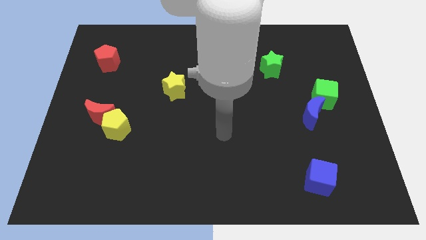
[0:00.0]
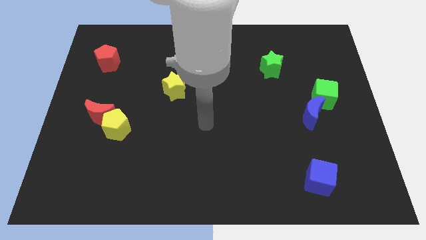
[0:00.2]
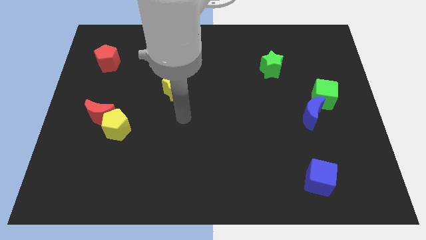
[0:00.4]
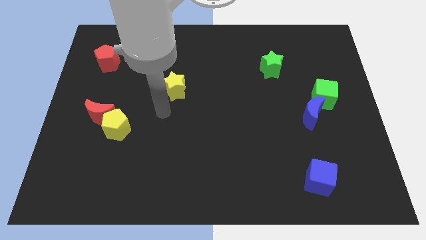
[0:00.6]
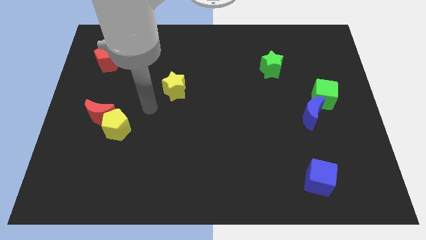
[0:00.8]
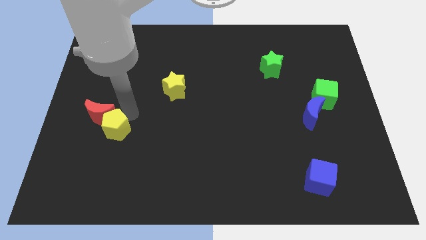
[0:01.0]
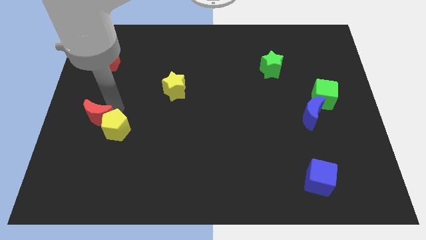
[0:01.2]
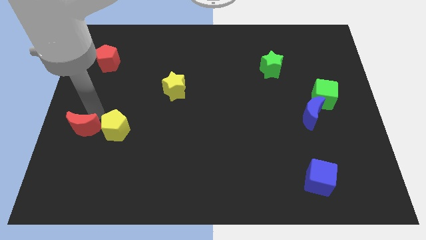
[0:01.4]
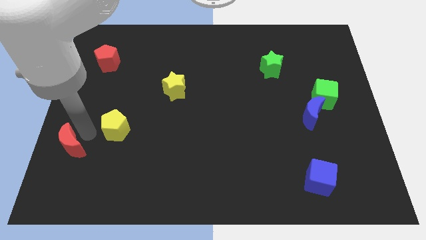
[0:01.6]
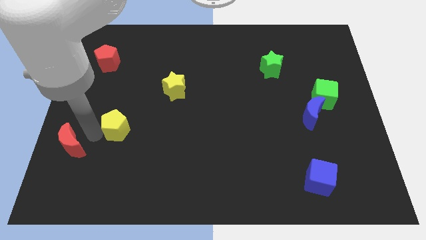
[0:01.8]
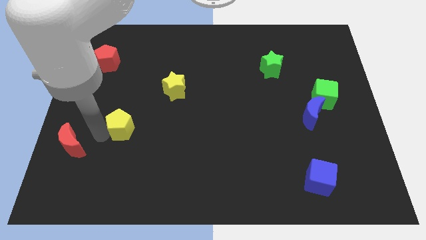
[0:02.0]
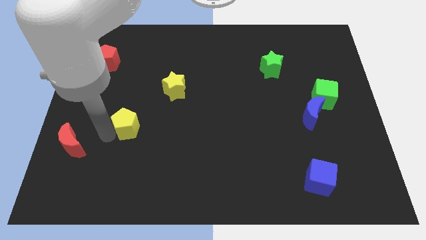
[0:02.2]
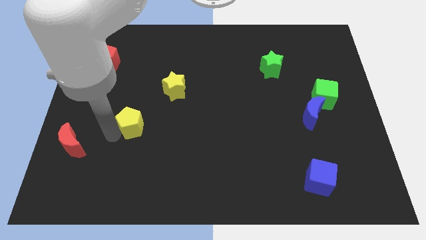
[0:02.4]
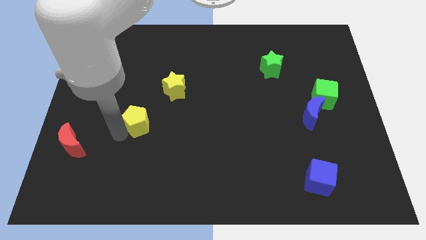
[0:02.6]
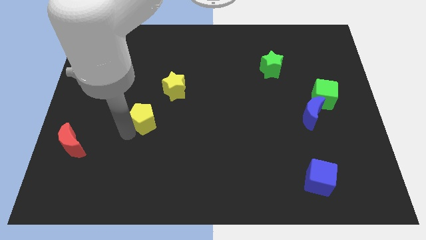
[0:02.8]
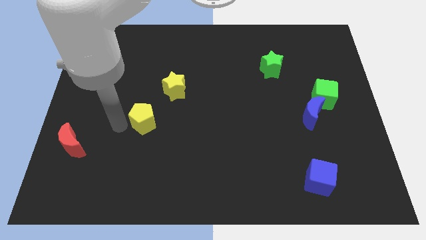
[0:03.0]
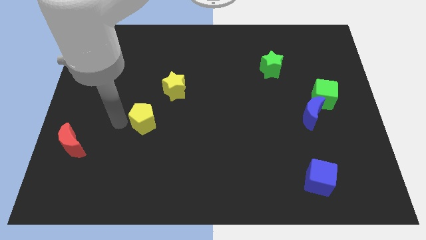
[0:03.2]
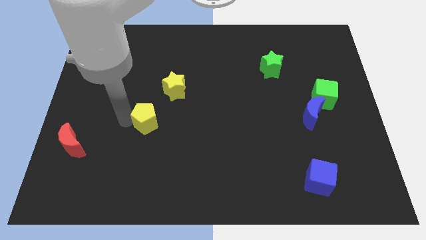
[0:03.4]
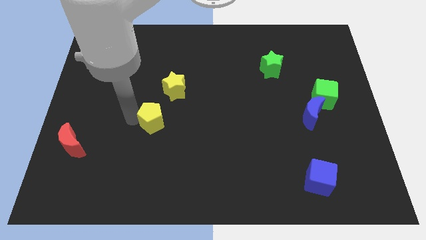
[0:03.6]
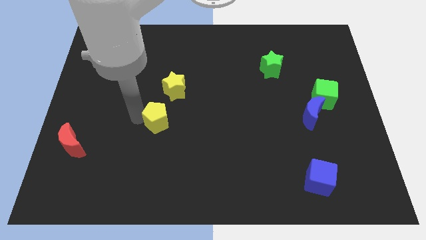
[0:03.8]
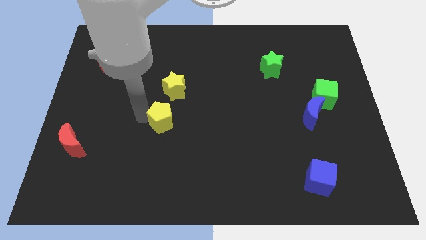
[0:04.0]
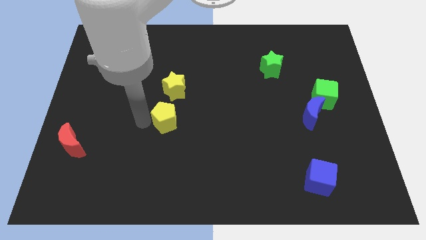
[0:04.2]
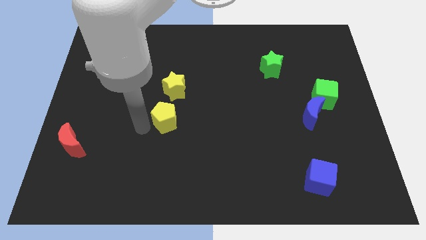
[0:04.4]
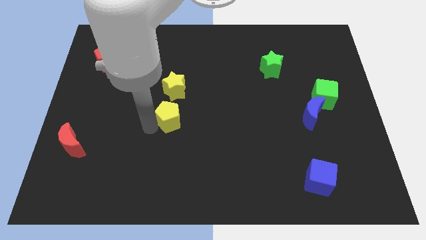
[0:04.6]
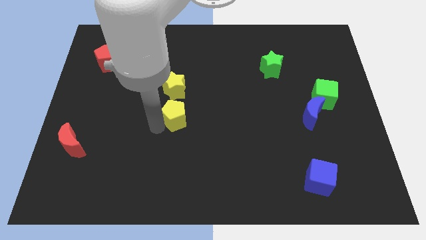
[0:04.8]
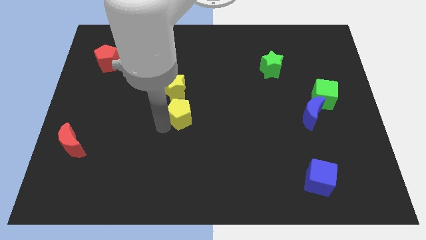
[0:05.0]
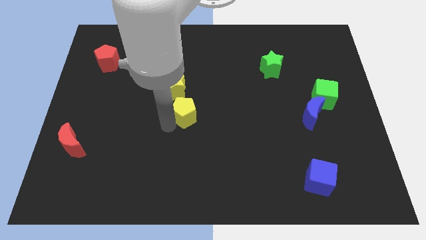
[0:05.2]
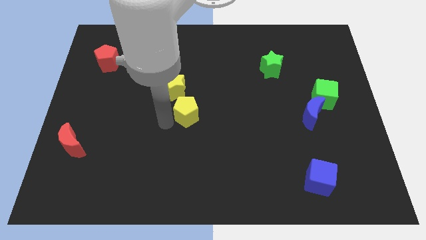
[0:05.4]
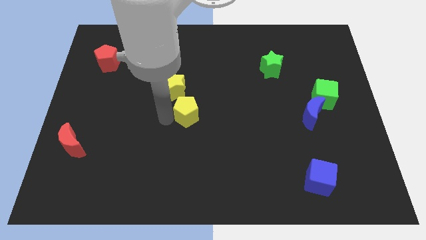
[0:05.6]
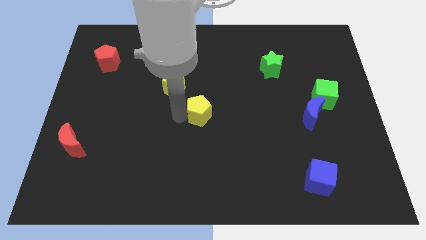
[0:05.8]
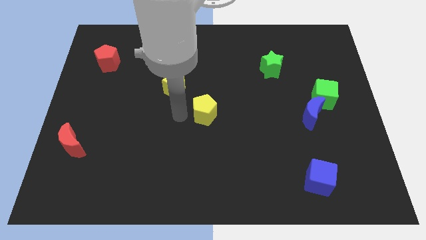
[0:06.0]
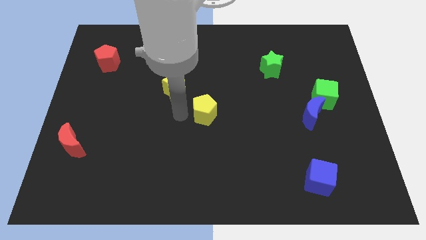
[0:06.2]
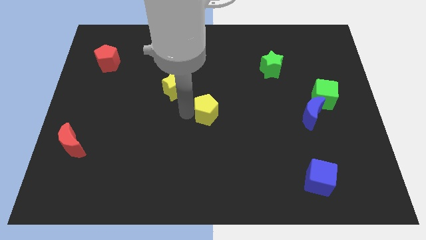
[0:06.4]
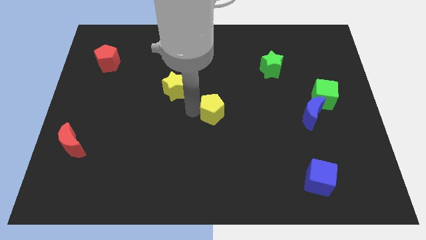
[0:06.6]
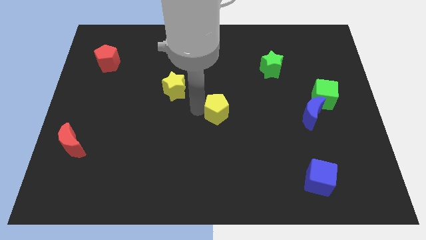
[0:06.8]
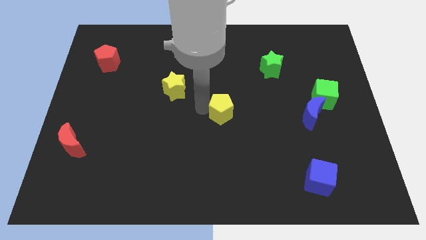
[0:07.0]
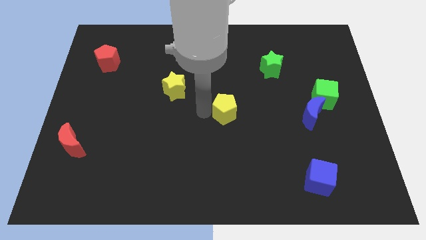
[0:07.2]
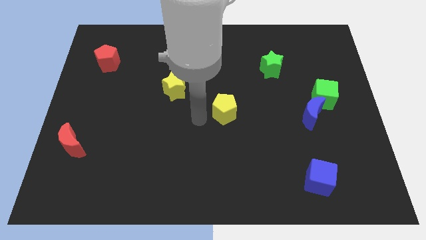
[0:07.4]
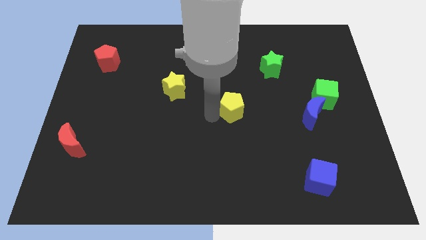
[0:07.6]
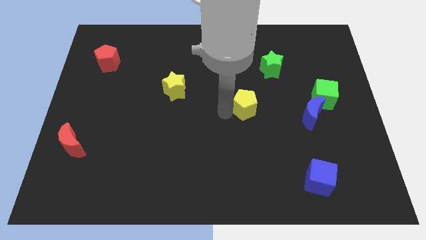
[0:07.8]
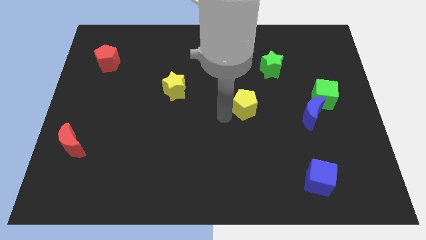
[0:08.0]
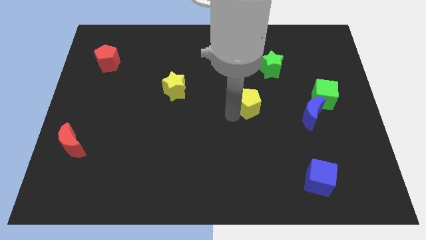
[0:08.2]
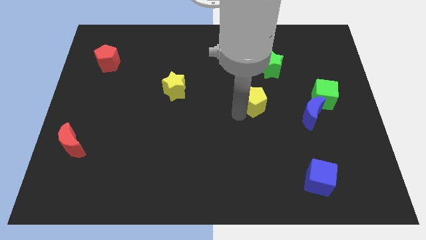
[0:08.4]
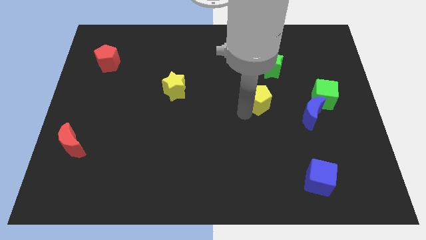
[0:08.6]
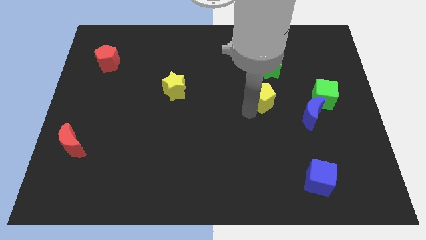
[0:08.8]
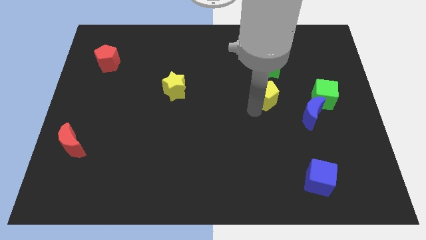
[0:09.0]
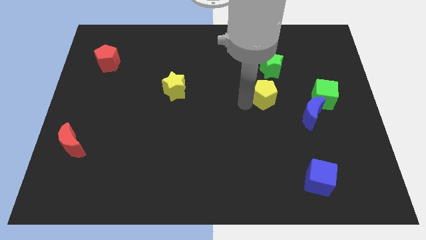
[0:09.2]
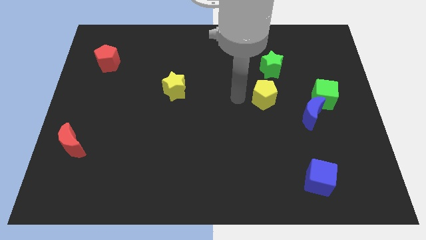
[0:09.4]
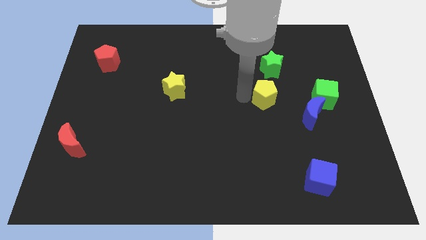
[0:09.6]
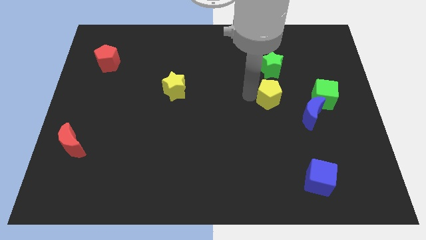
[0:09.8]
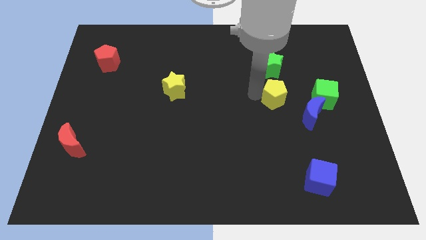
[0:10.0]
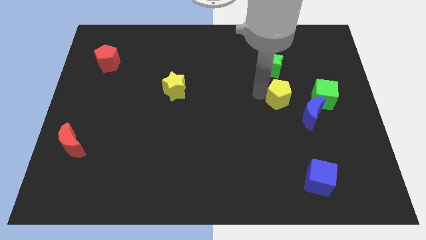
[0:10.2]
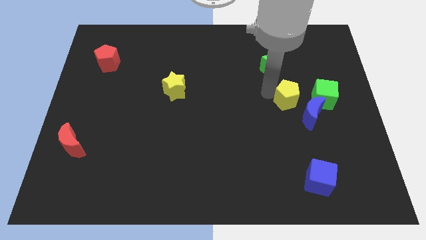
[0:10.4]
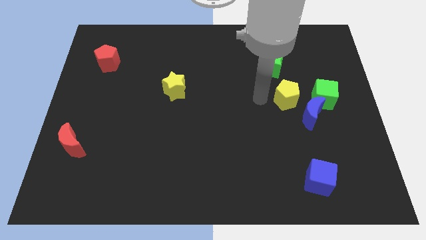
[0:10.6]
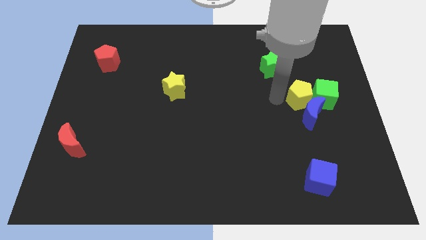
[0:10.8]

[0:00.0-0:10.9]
push the yellow pentagon towards the green cube
